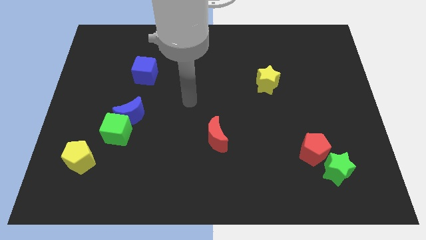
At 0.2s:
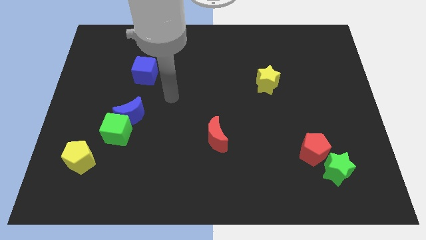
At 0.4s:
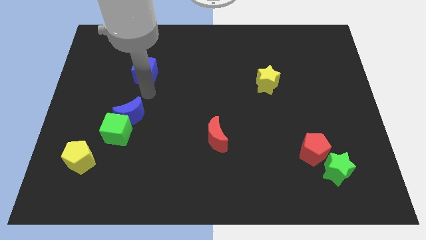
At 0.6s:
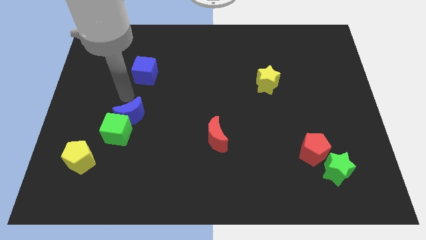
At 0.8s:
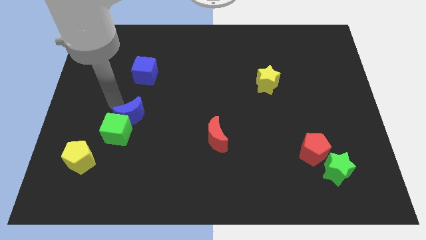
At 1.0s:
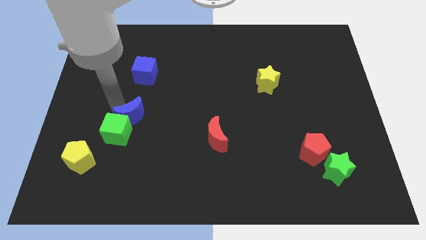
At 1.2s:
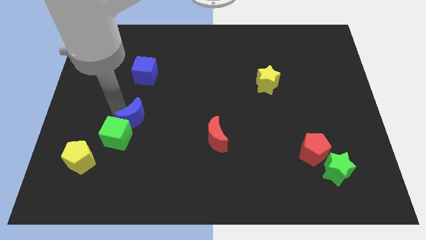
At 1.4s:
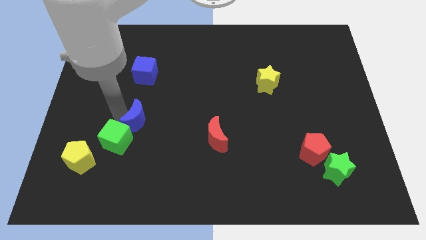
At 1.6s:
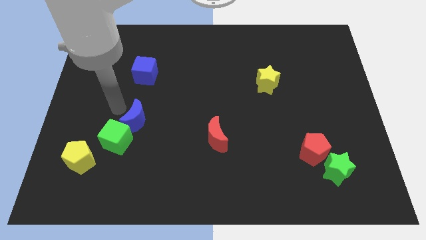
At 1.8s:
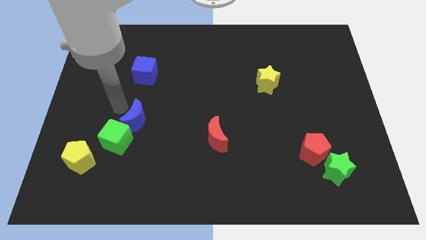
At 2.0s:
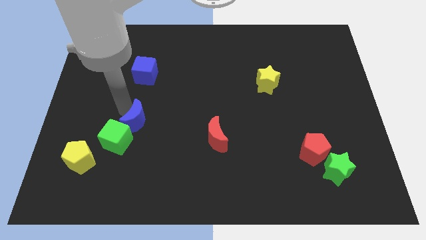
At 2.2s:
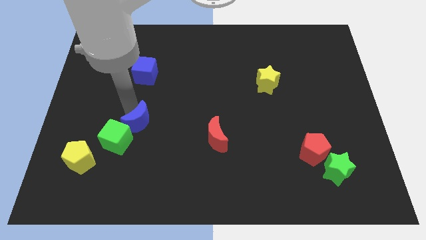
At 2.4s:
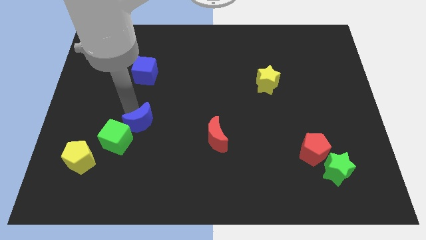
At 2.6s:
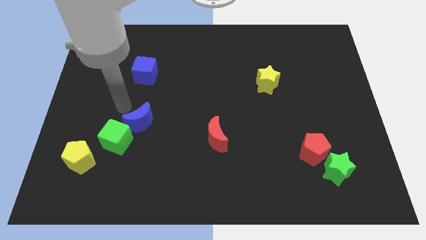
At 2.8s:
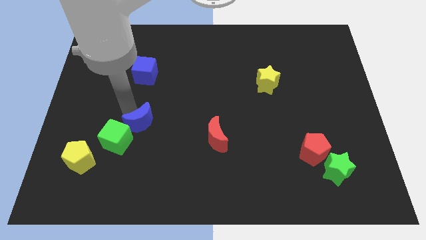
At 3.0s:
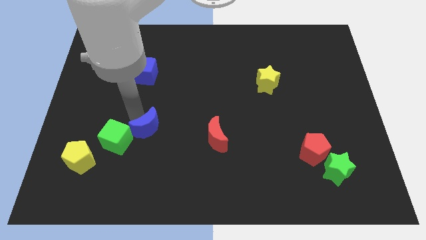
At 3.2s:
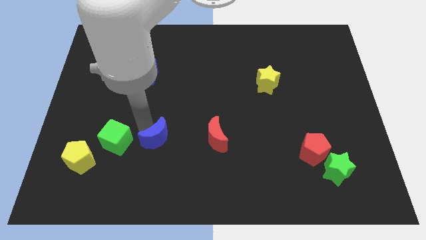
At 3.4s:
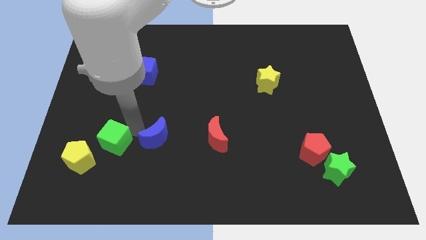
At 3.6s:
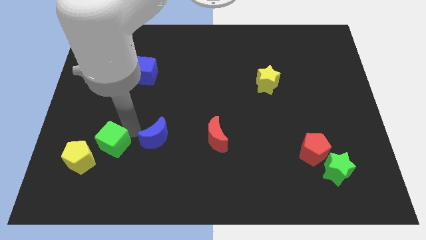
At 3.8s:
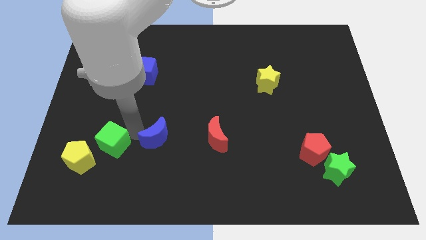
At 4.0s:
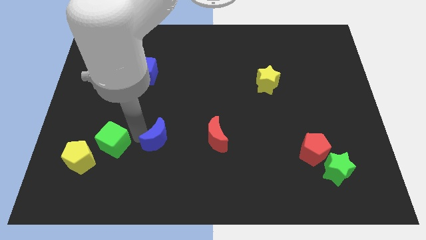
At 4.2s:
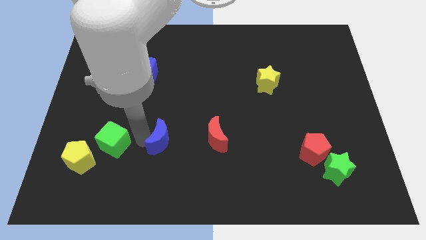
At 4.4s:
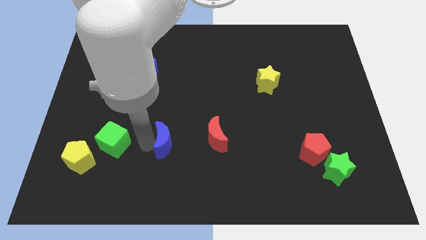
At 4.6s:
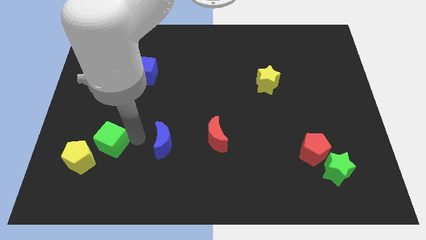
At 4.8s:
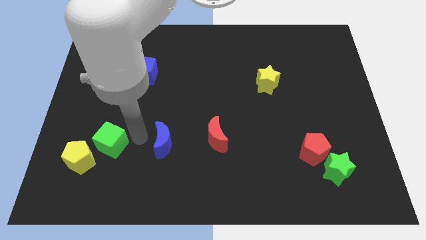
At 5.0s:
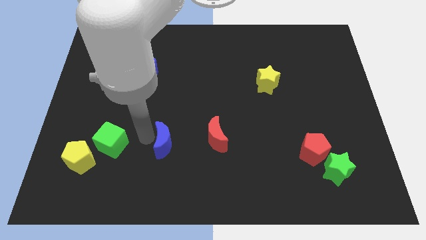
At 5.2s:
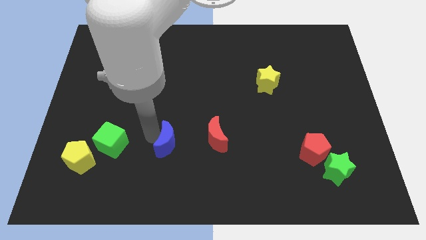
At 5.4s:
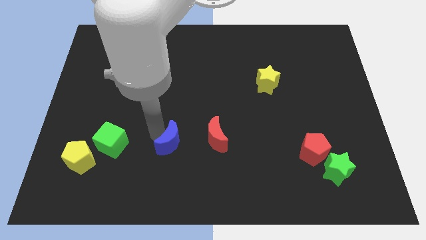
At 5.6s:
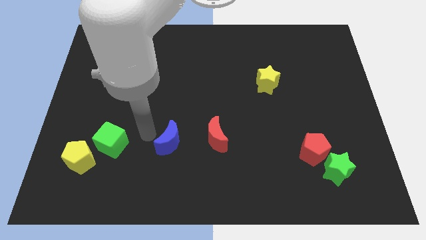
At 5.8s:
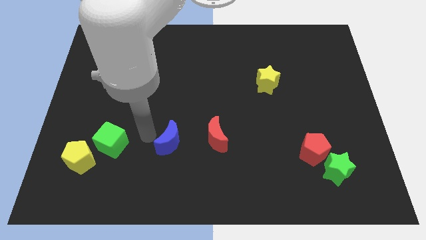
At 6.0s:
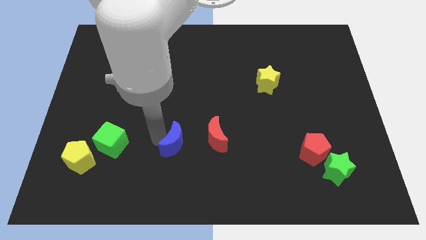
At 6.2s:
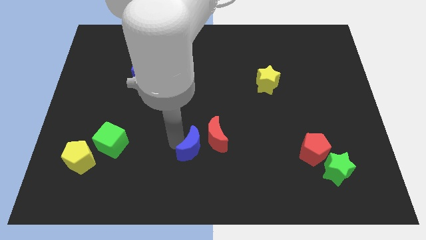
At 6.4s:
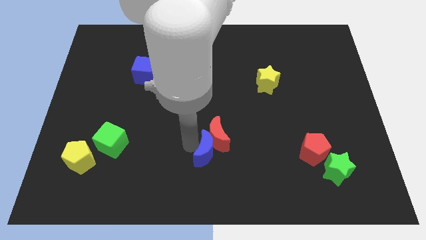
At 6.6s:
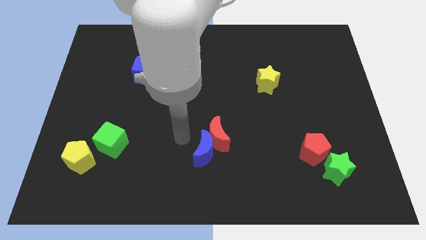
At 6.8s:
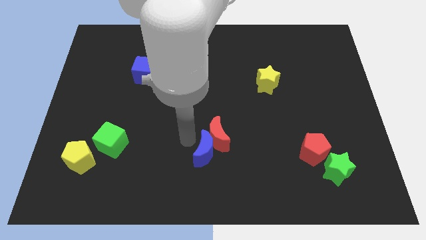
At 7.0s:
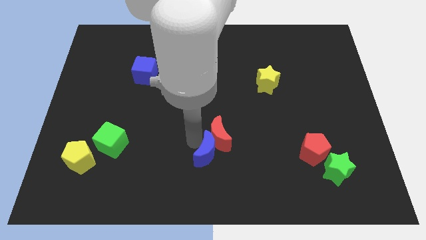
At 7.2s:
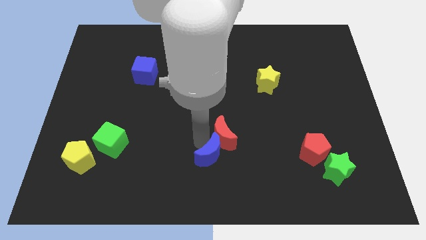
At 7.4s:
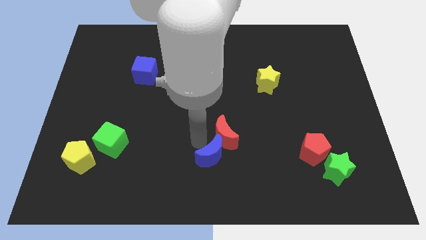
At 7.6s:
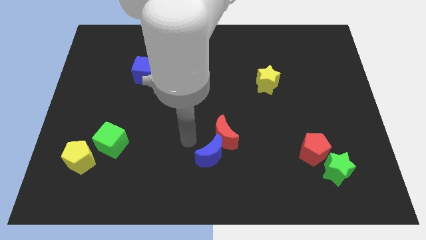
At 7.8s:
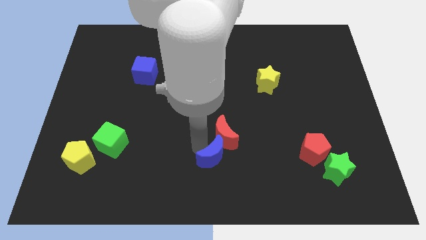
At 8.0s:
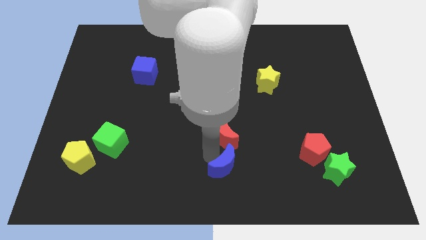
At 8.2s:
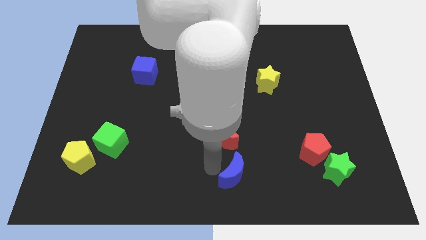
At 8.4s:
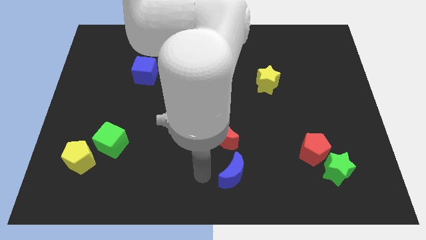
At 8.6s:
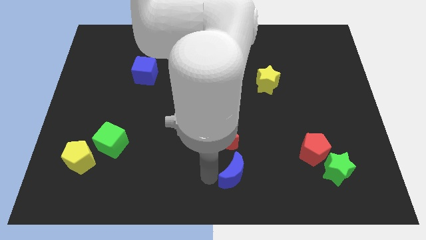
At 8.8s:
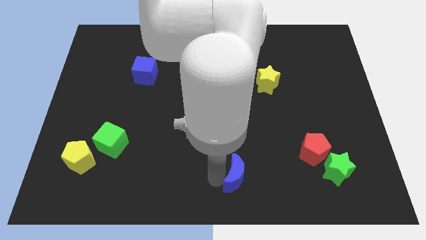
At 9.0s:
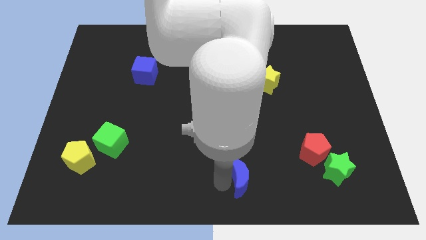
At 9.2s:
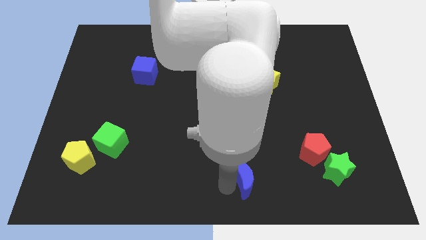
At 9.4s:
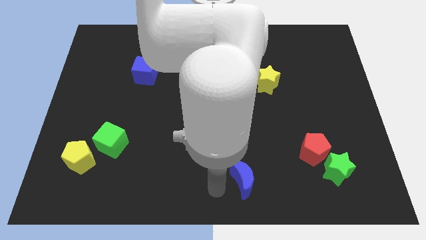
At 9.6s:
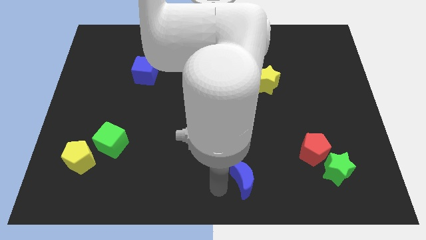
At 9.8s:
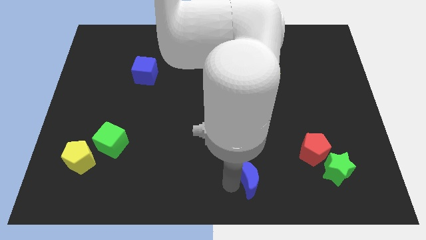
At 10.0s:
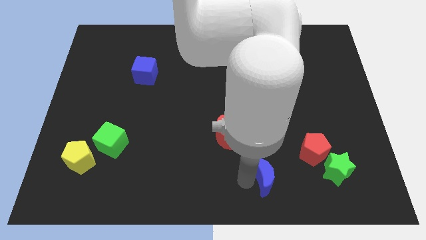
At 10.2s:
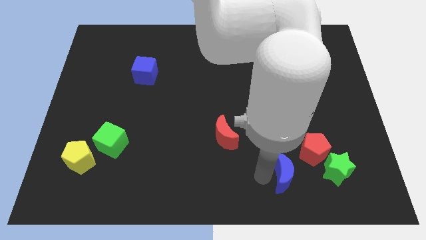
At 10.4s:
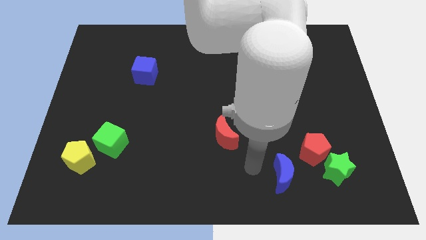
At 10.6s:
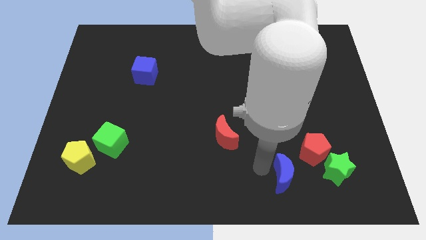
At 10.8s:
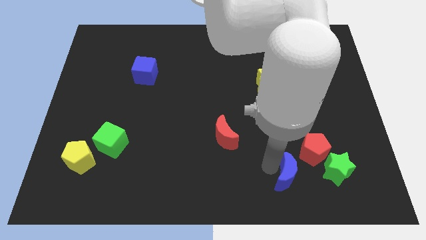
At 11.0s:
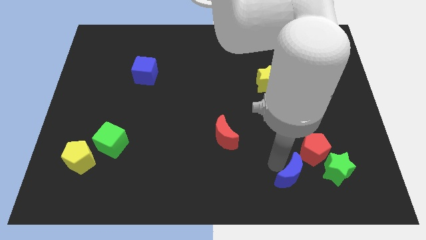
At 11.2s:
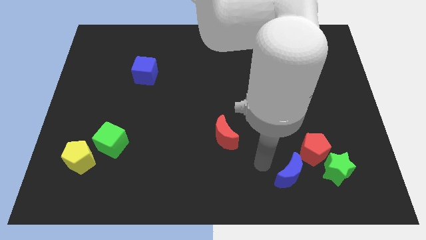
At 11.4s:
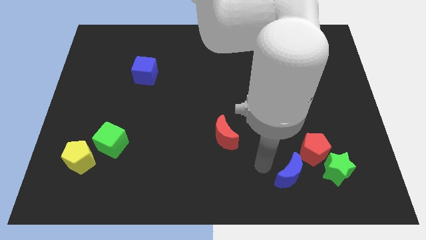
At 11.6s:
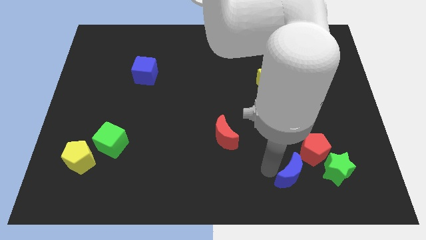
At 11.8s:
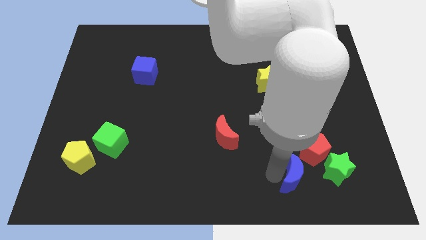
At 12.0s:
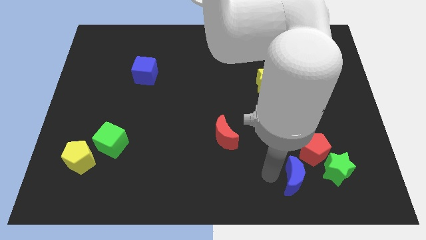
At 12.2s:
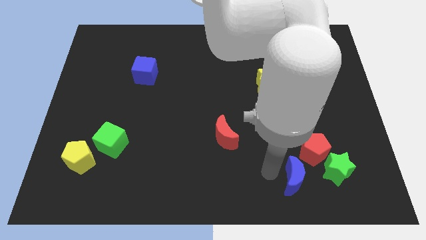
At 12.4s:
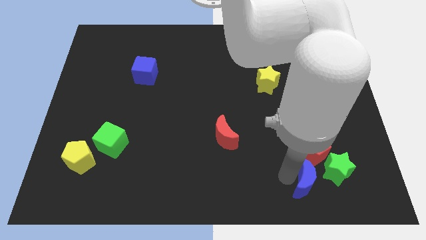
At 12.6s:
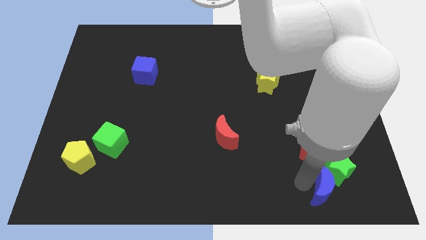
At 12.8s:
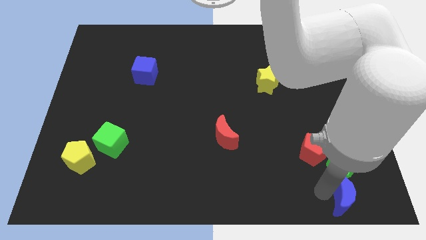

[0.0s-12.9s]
move the blue moon to the bottom right corner
